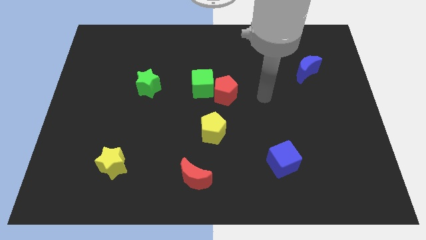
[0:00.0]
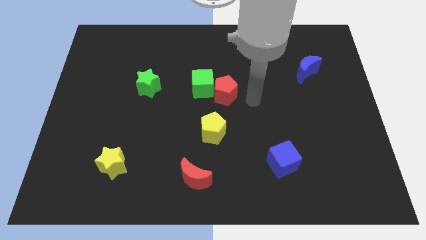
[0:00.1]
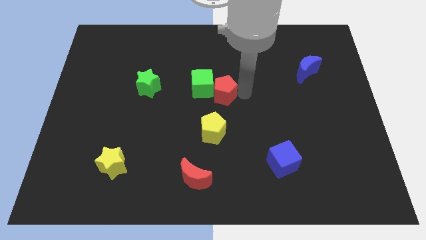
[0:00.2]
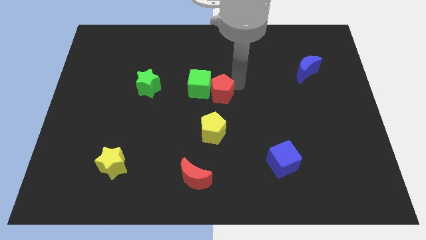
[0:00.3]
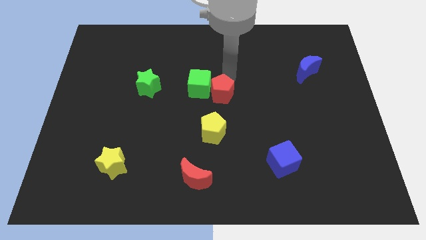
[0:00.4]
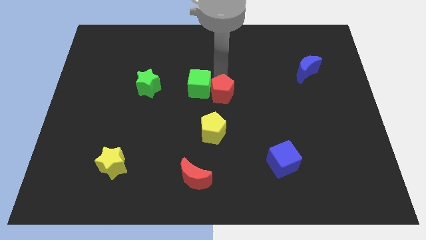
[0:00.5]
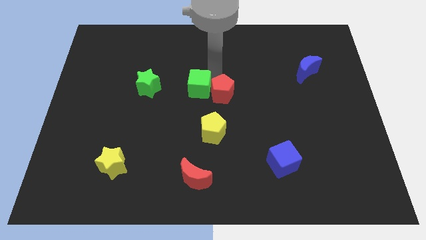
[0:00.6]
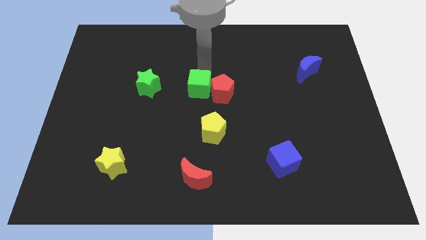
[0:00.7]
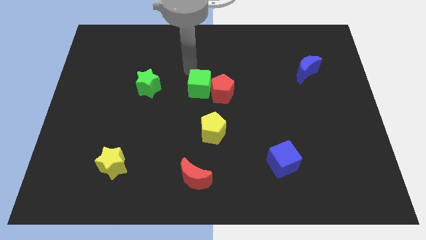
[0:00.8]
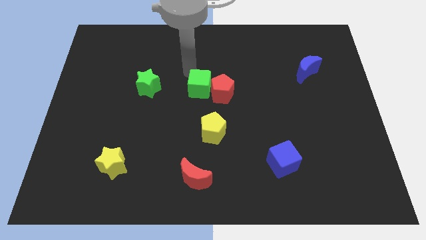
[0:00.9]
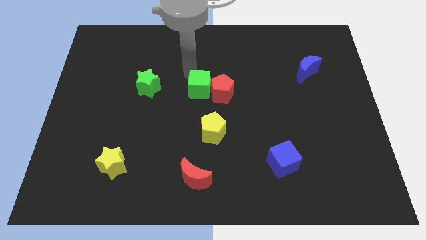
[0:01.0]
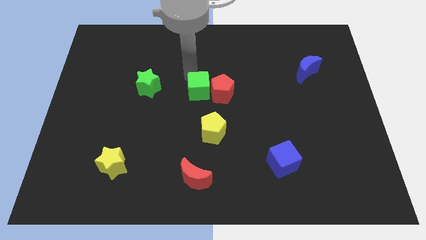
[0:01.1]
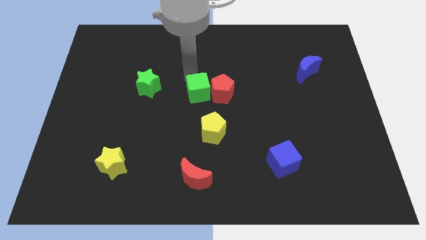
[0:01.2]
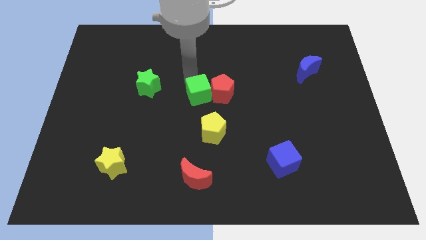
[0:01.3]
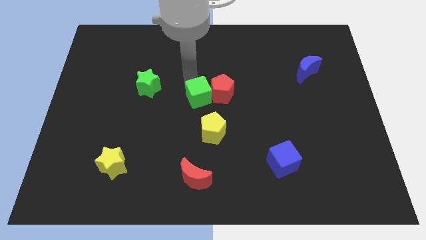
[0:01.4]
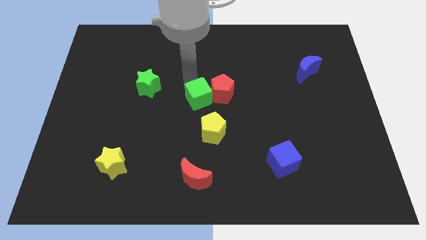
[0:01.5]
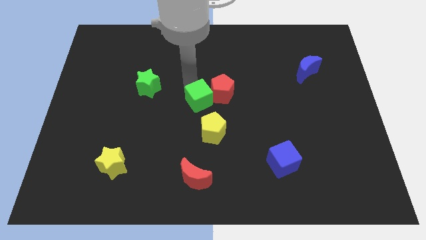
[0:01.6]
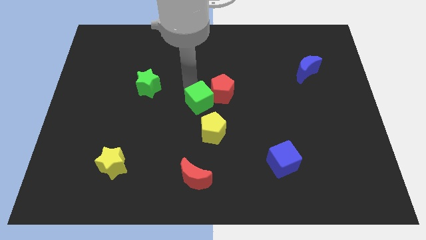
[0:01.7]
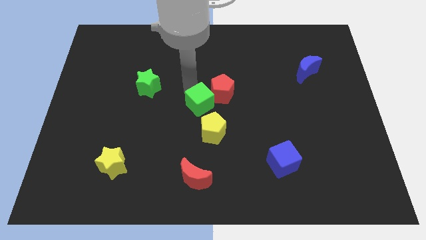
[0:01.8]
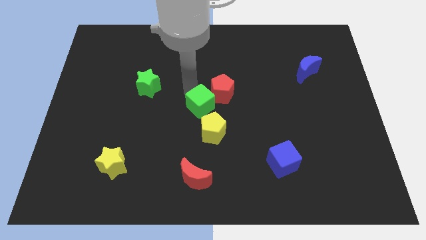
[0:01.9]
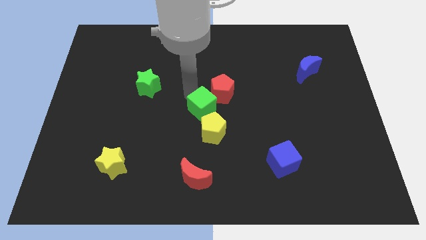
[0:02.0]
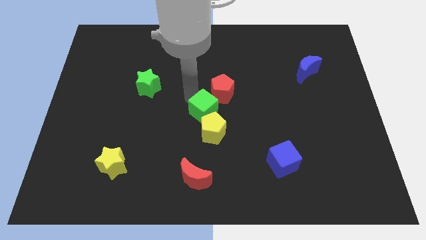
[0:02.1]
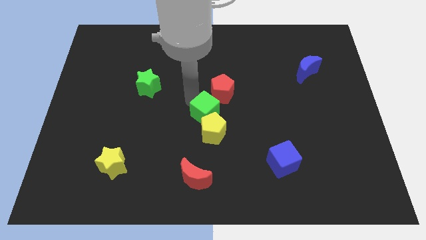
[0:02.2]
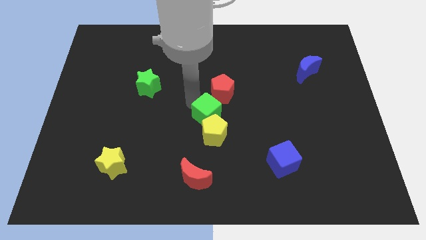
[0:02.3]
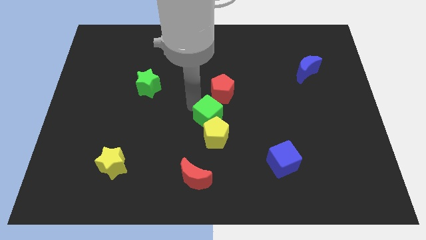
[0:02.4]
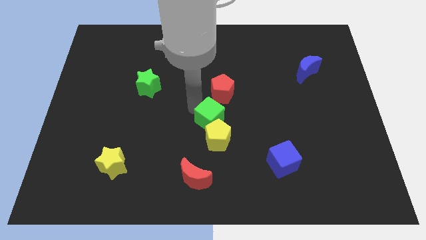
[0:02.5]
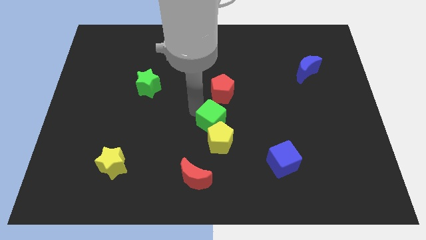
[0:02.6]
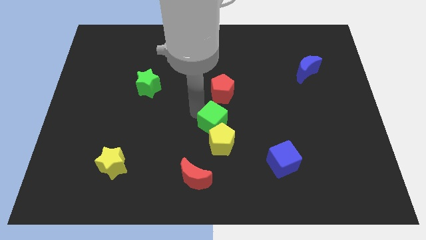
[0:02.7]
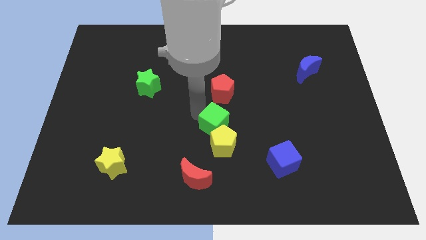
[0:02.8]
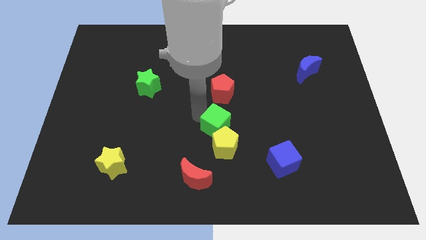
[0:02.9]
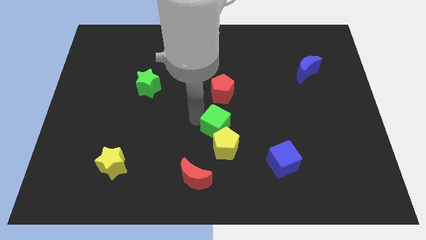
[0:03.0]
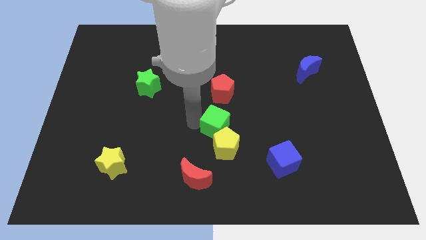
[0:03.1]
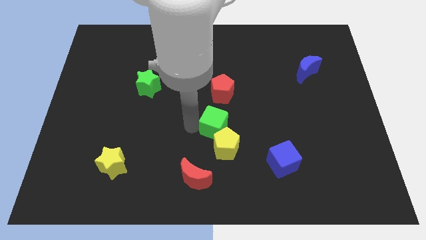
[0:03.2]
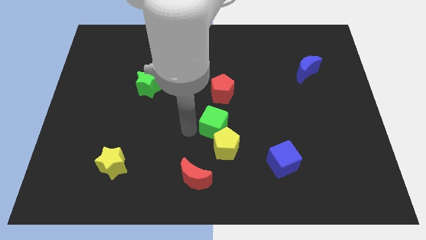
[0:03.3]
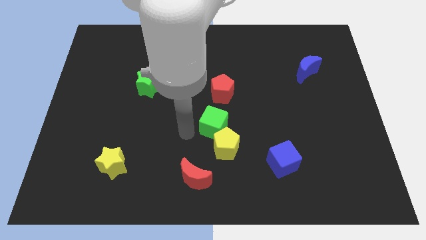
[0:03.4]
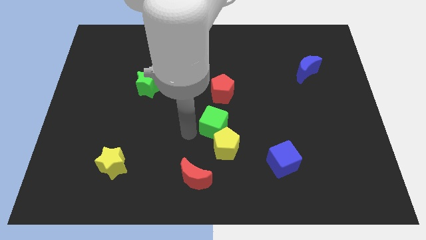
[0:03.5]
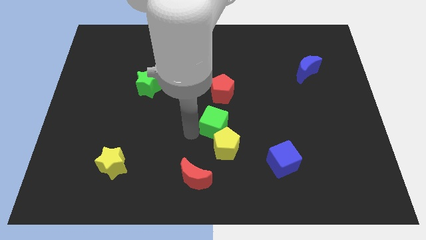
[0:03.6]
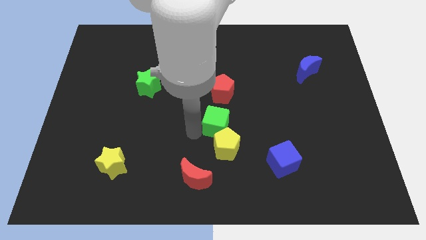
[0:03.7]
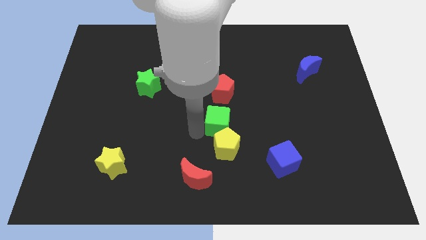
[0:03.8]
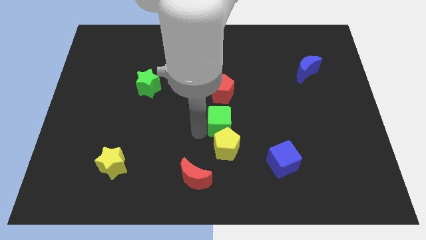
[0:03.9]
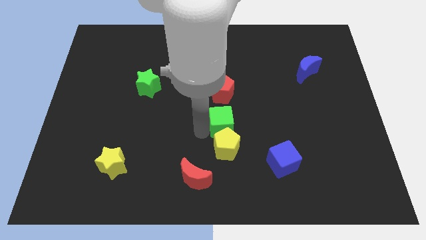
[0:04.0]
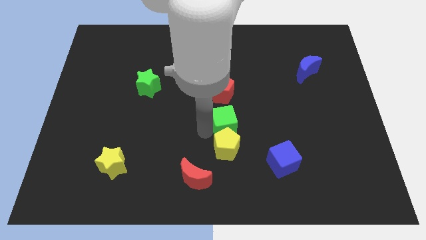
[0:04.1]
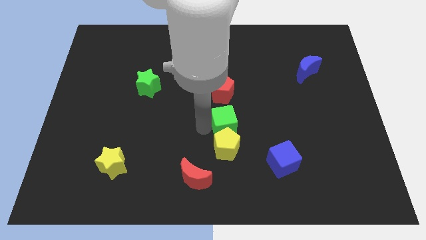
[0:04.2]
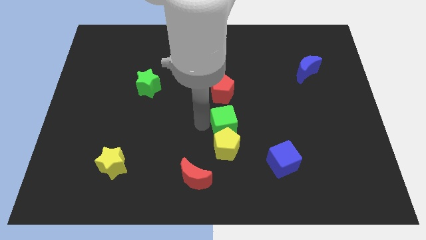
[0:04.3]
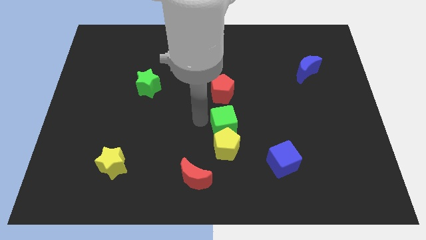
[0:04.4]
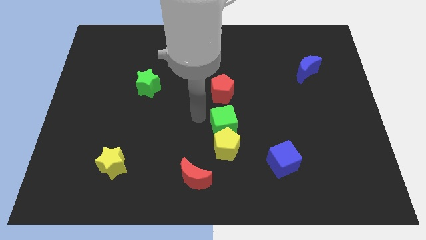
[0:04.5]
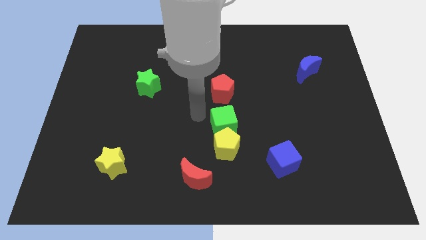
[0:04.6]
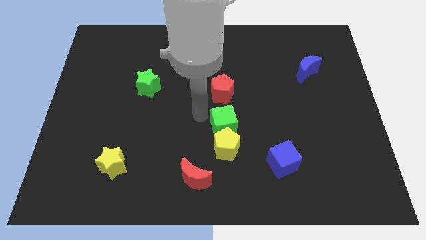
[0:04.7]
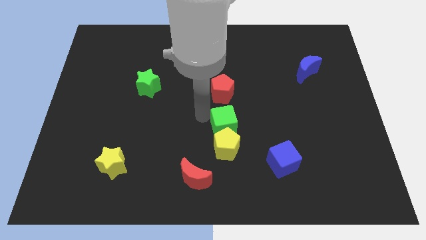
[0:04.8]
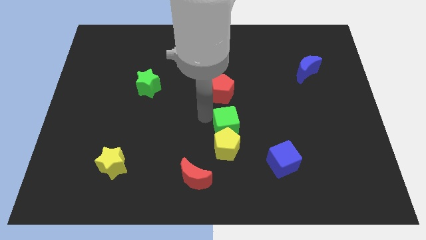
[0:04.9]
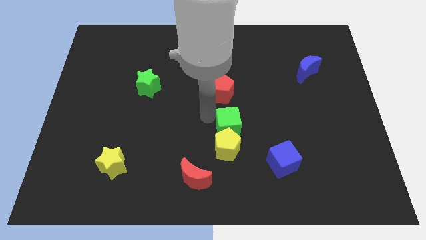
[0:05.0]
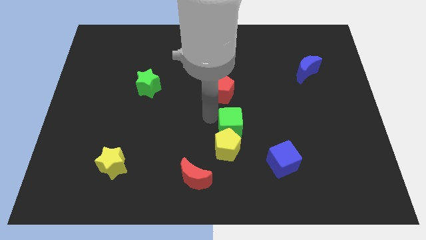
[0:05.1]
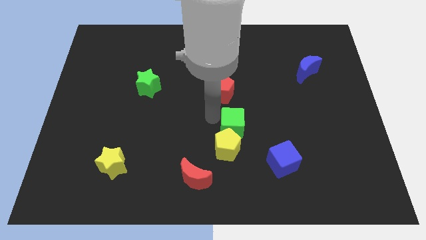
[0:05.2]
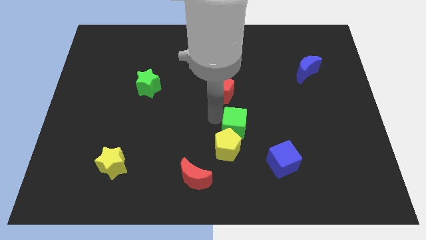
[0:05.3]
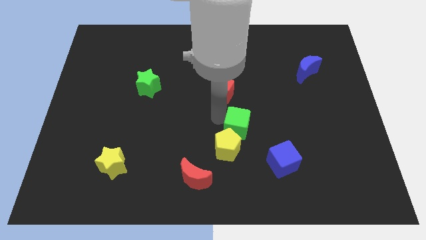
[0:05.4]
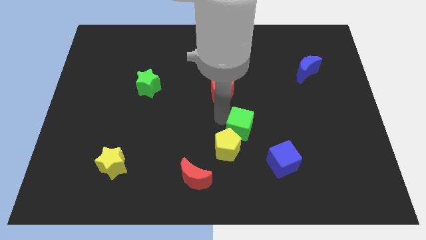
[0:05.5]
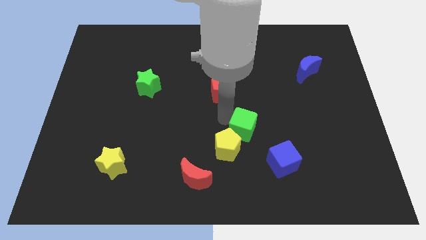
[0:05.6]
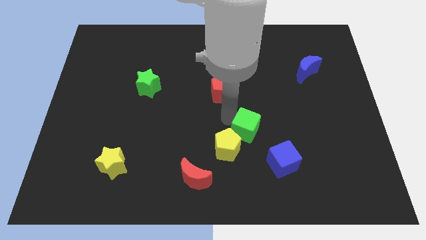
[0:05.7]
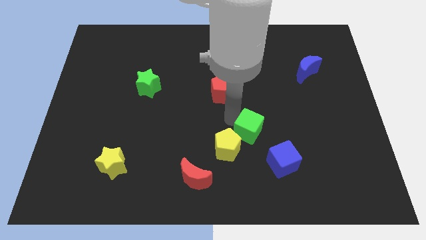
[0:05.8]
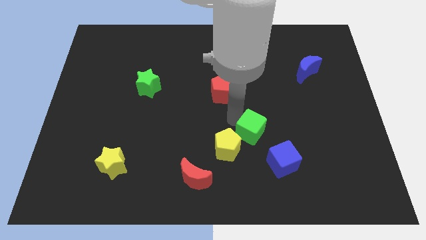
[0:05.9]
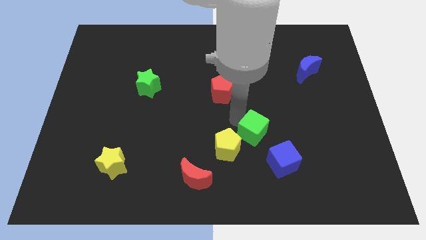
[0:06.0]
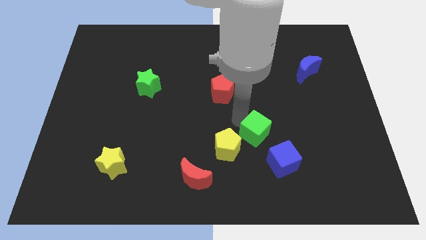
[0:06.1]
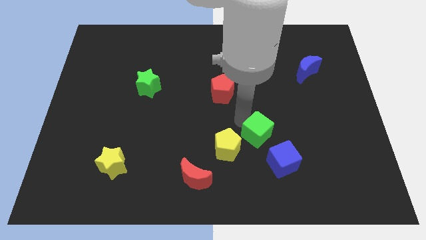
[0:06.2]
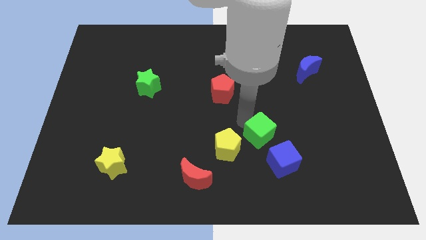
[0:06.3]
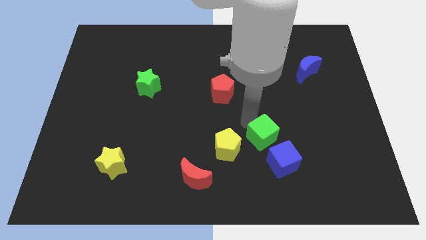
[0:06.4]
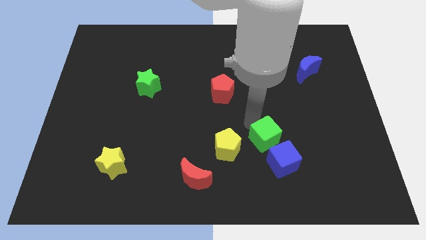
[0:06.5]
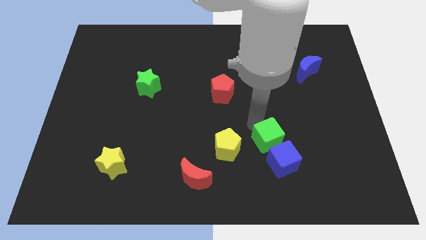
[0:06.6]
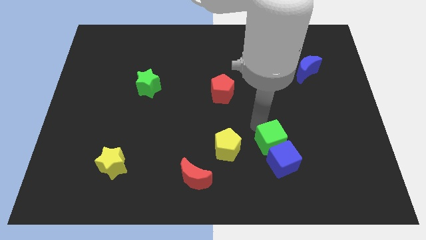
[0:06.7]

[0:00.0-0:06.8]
push the green cube close to the blue cube
